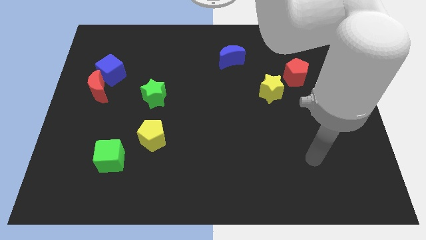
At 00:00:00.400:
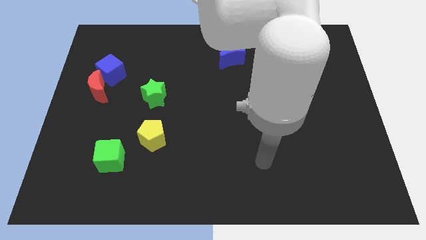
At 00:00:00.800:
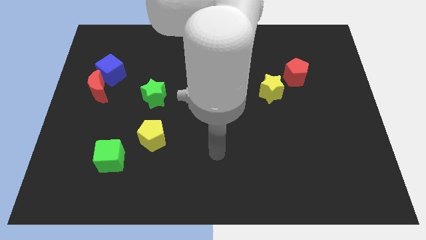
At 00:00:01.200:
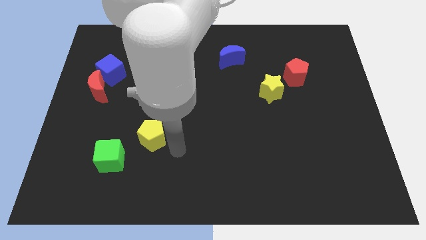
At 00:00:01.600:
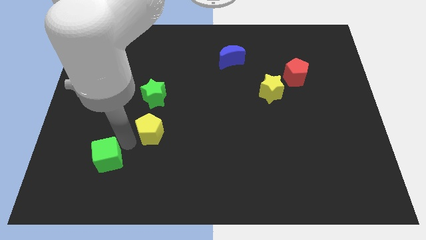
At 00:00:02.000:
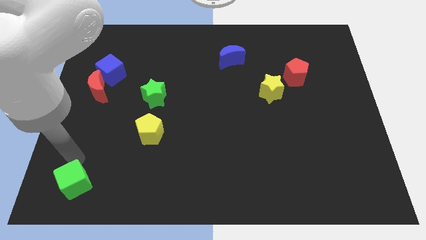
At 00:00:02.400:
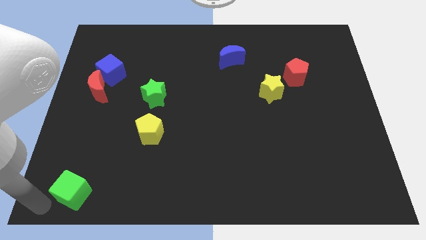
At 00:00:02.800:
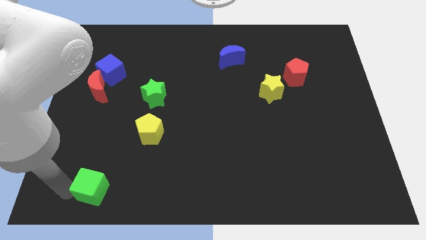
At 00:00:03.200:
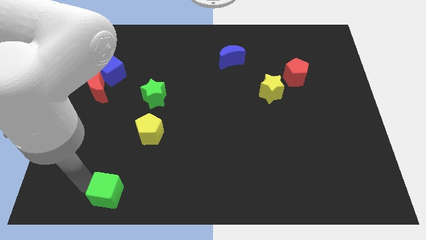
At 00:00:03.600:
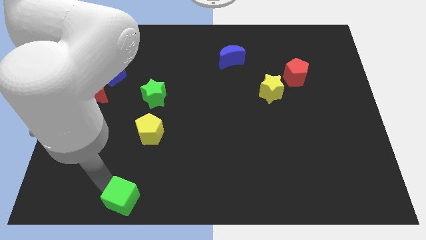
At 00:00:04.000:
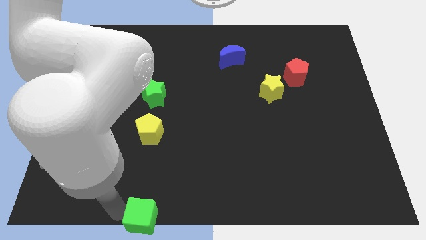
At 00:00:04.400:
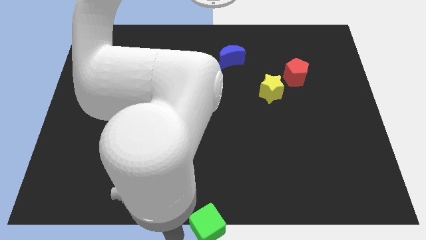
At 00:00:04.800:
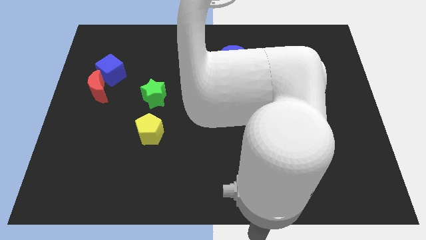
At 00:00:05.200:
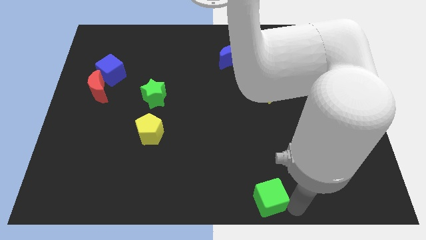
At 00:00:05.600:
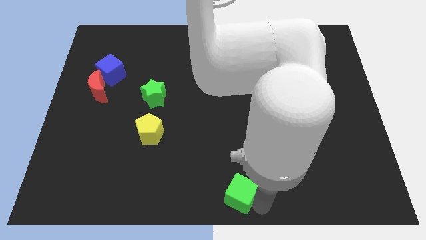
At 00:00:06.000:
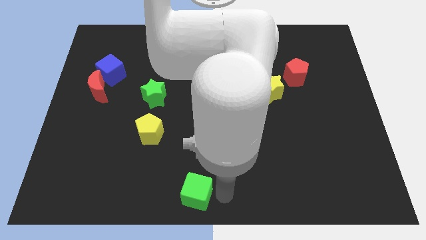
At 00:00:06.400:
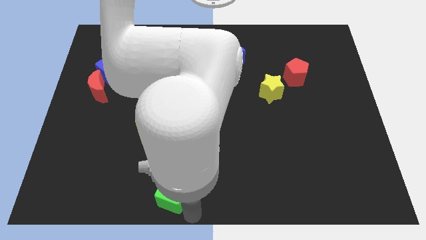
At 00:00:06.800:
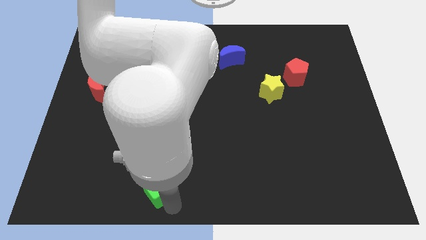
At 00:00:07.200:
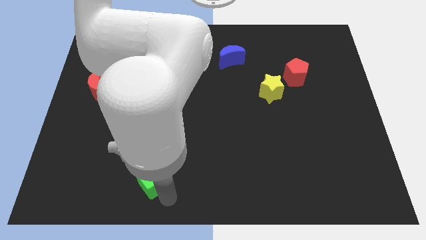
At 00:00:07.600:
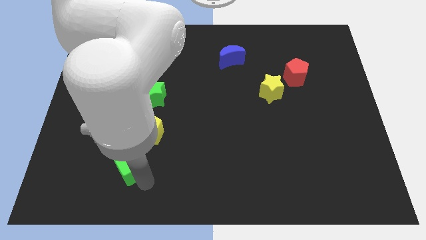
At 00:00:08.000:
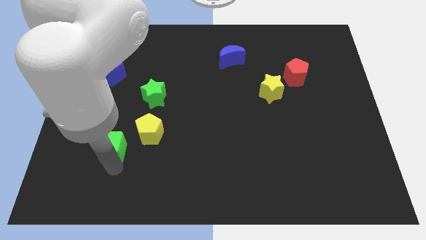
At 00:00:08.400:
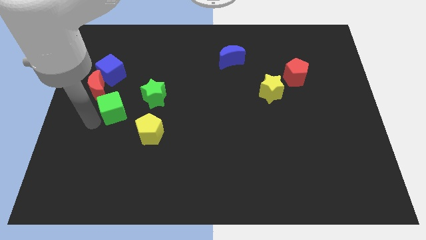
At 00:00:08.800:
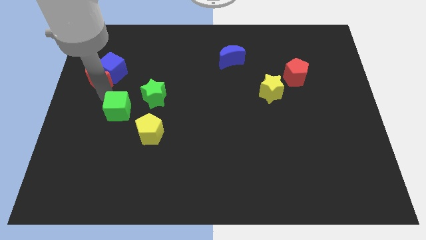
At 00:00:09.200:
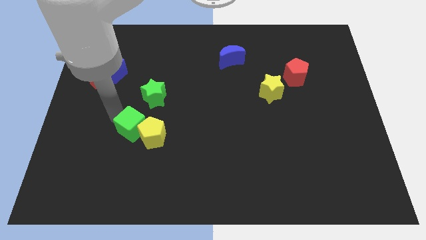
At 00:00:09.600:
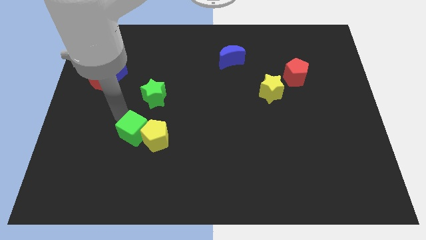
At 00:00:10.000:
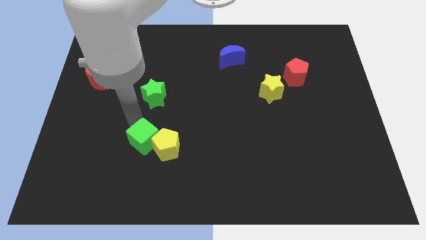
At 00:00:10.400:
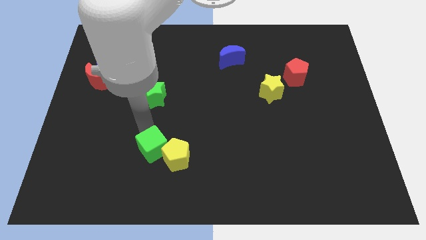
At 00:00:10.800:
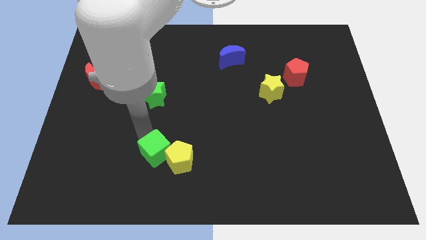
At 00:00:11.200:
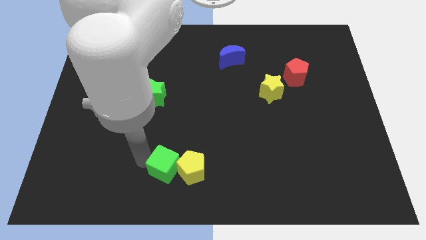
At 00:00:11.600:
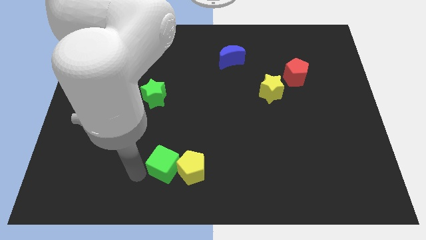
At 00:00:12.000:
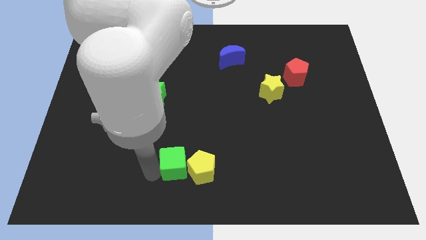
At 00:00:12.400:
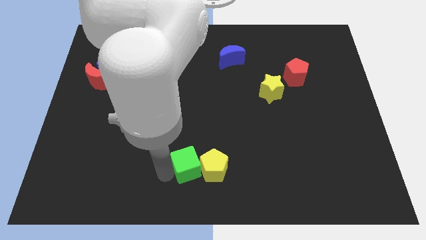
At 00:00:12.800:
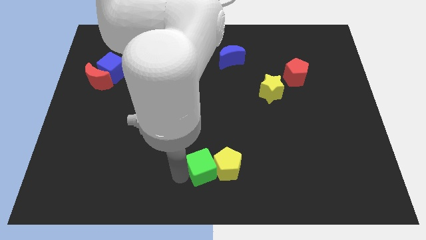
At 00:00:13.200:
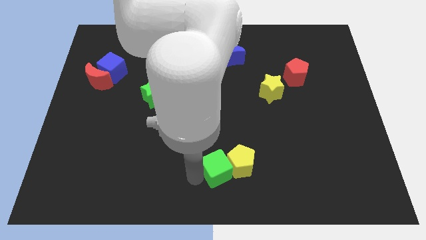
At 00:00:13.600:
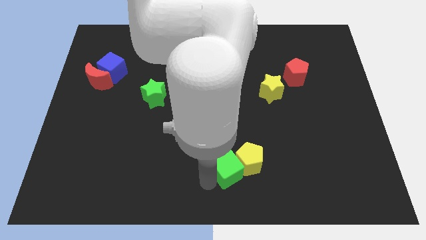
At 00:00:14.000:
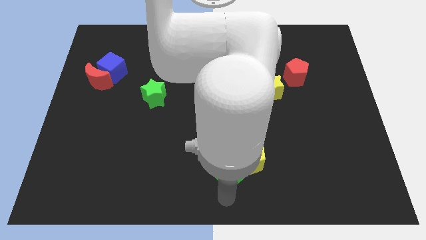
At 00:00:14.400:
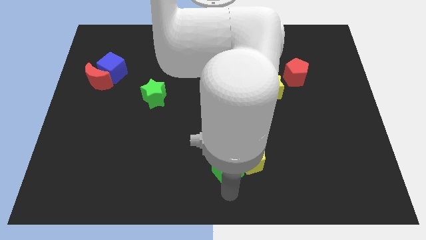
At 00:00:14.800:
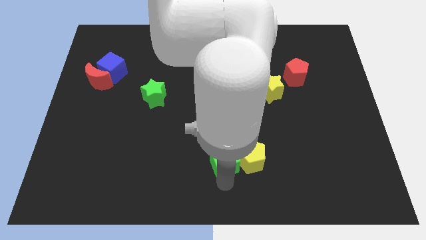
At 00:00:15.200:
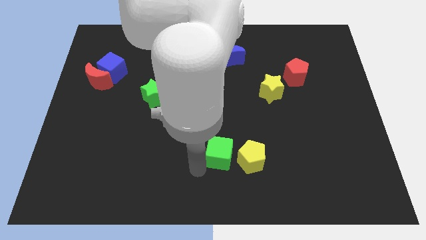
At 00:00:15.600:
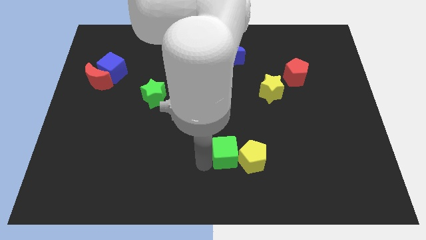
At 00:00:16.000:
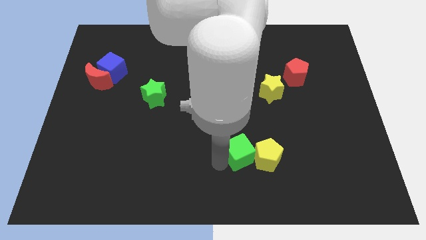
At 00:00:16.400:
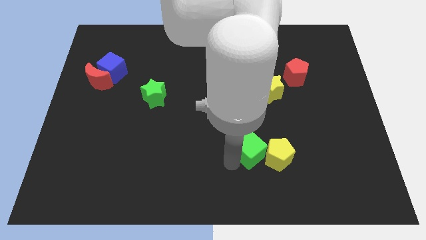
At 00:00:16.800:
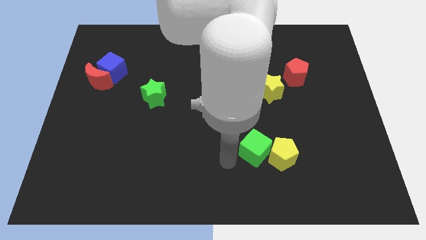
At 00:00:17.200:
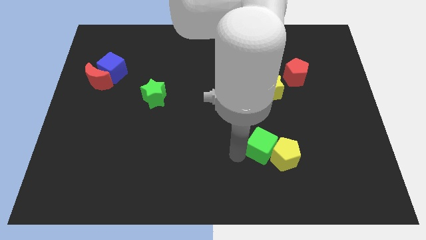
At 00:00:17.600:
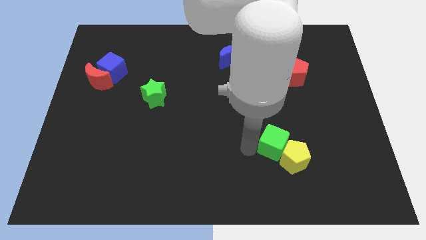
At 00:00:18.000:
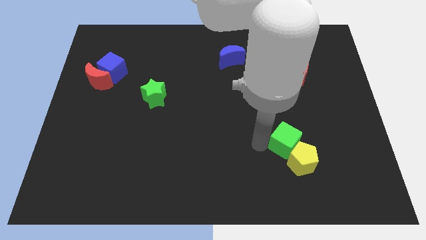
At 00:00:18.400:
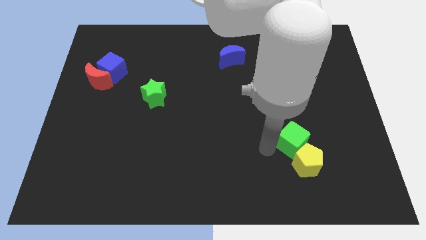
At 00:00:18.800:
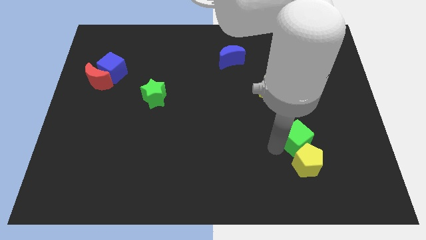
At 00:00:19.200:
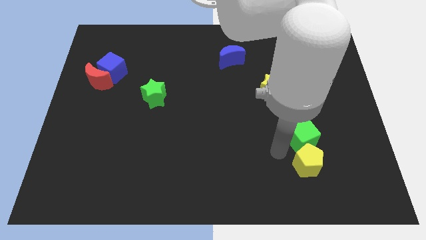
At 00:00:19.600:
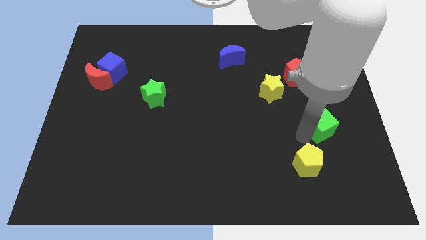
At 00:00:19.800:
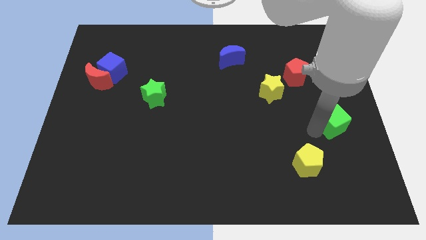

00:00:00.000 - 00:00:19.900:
slide the green cube to the right side of the board
